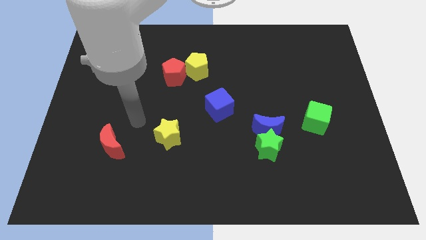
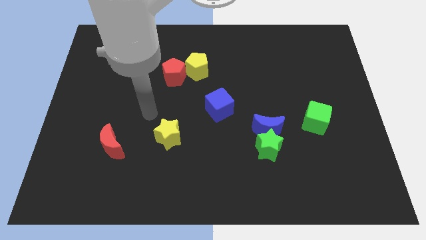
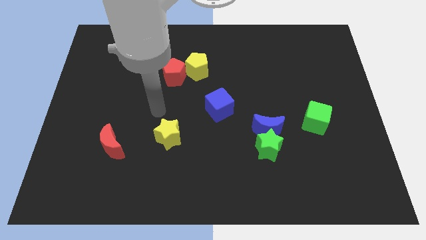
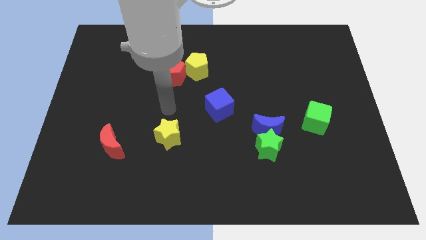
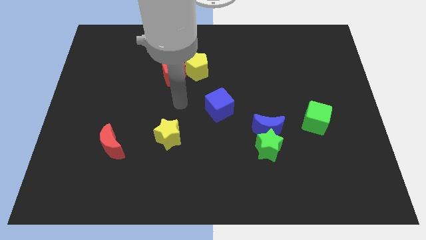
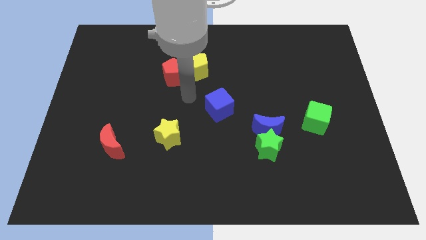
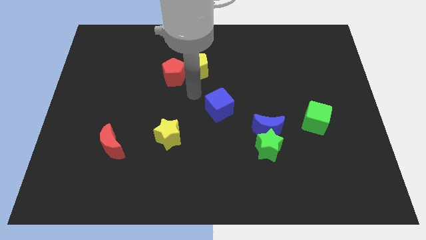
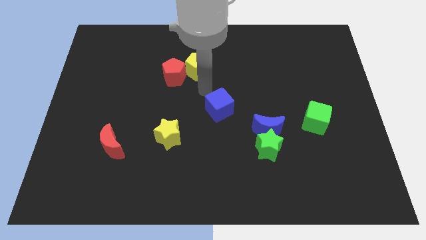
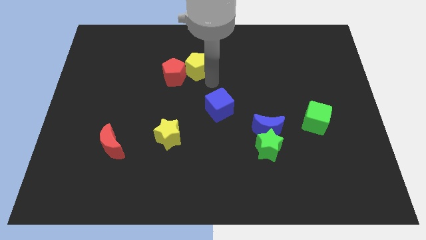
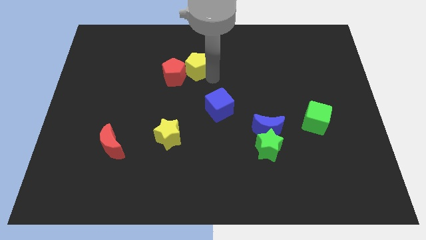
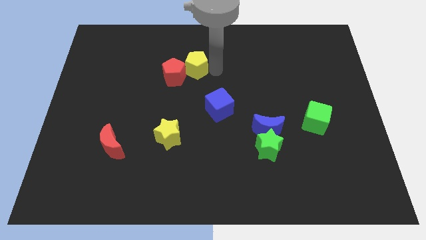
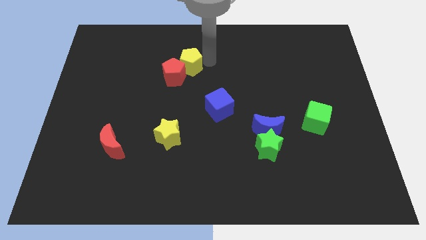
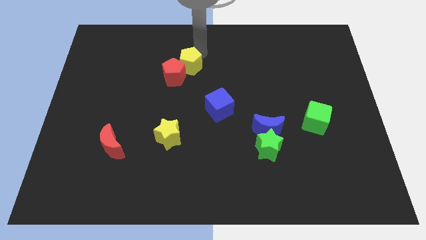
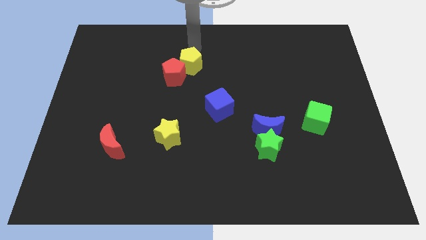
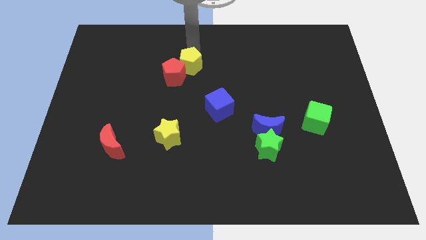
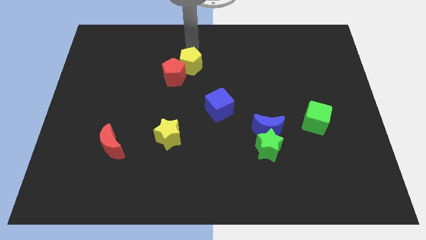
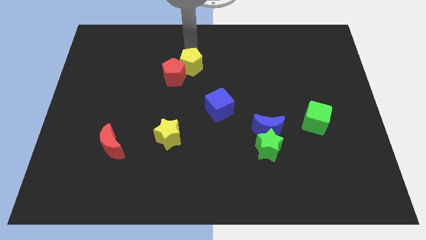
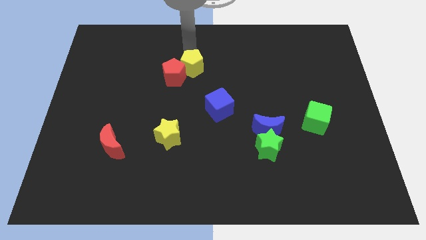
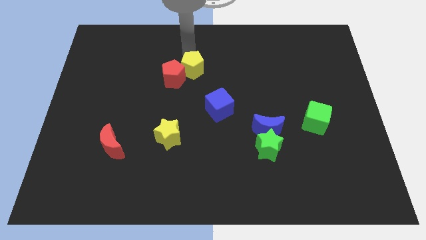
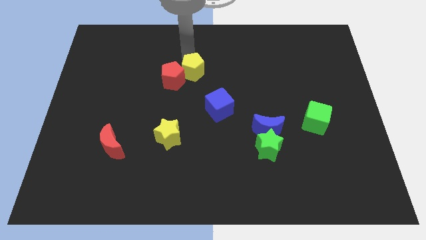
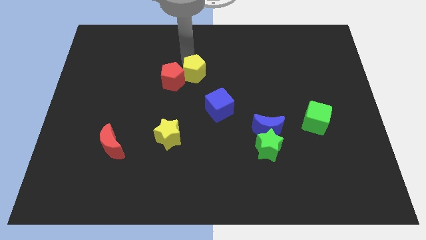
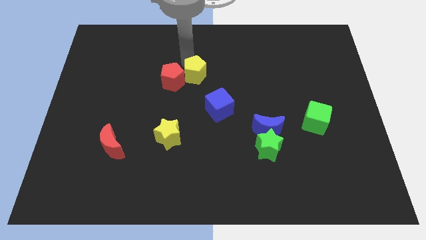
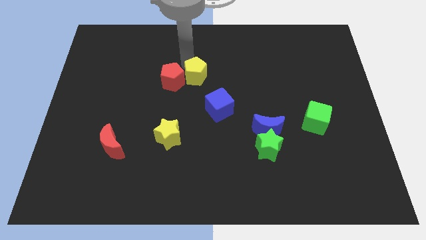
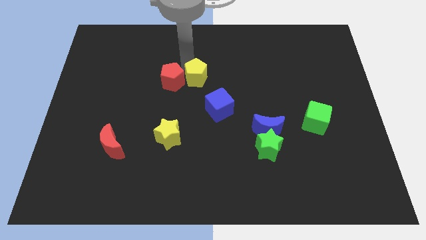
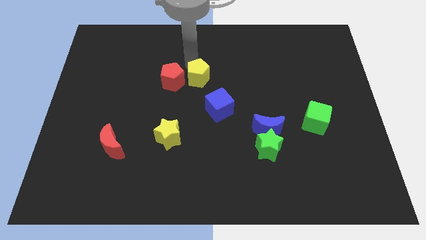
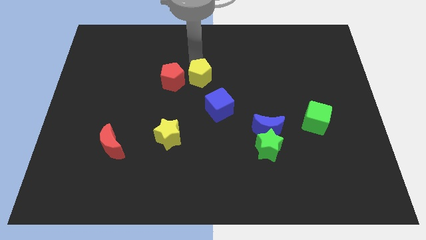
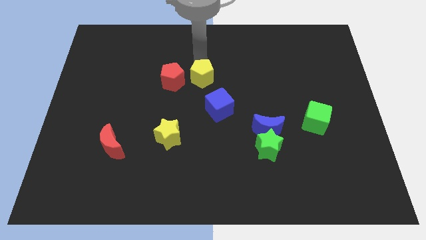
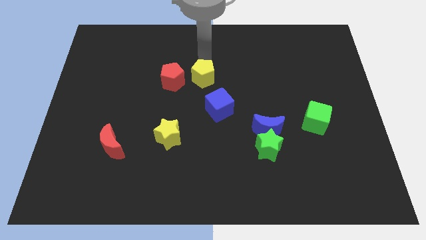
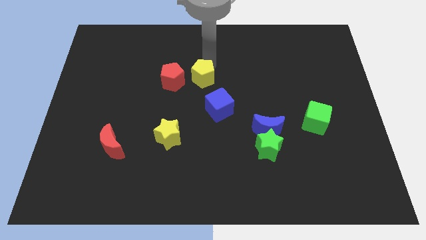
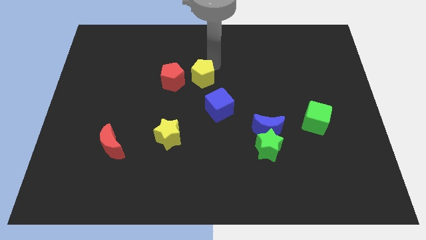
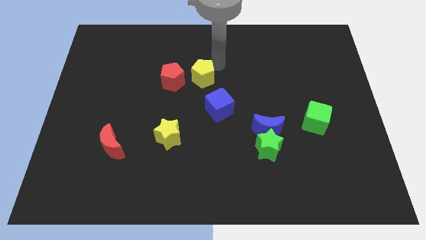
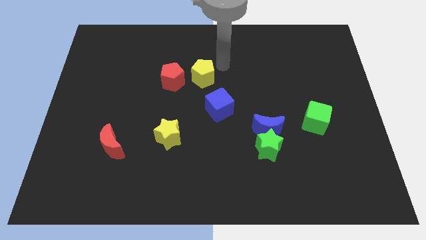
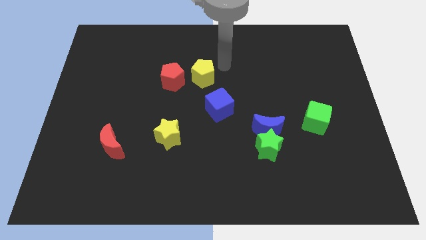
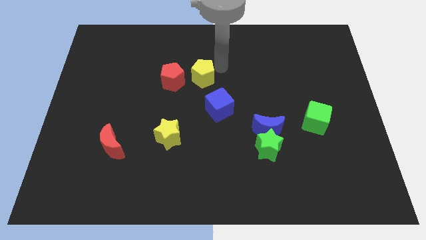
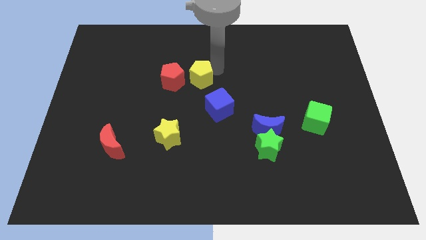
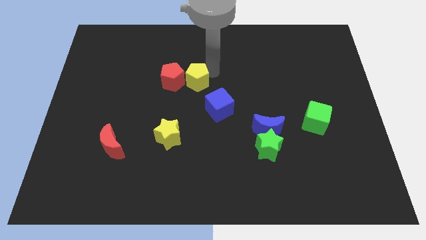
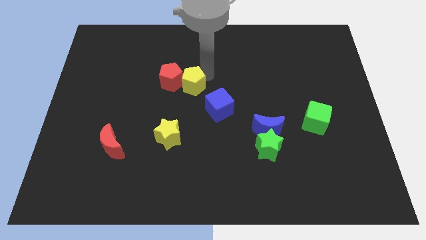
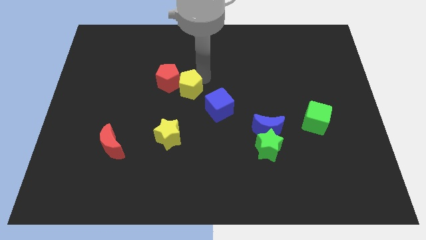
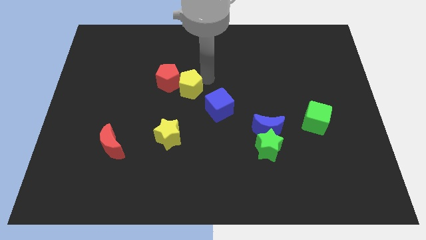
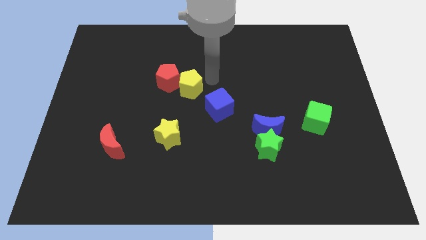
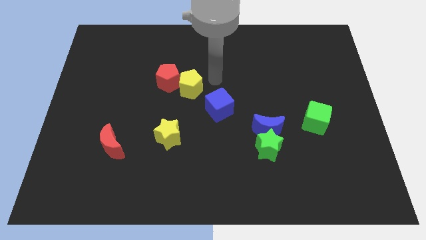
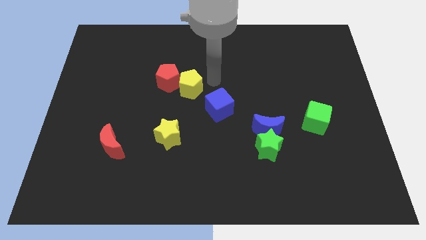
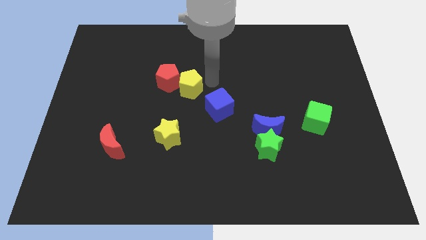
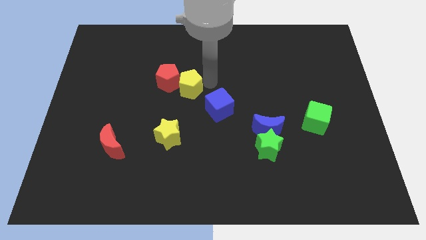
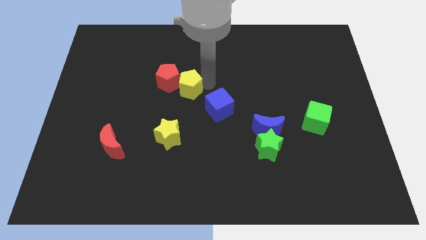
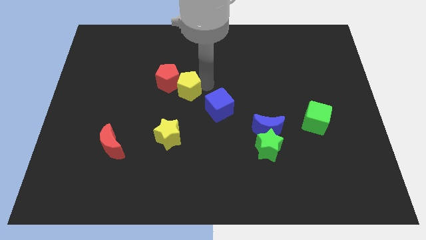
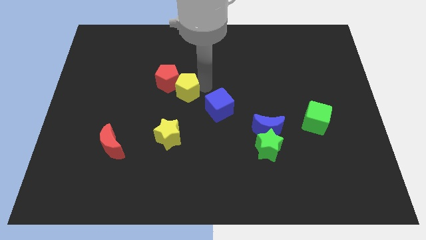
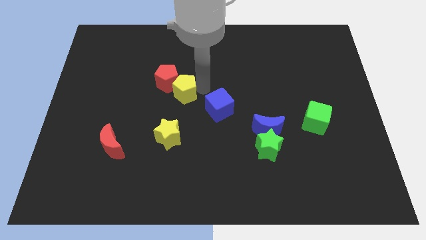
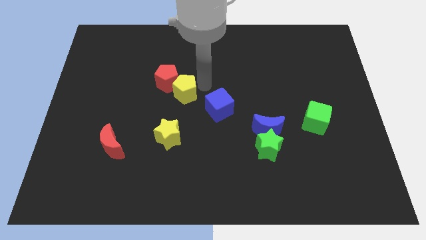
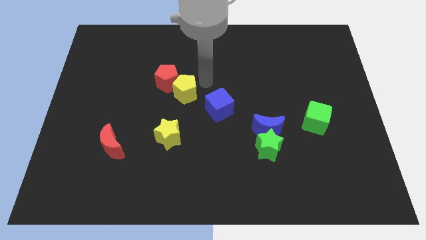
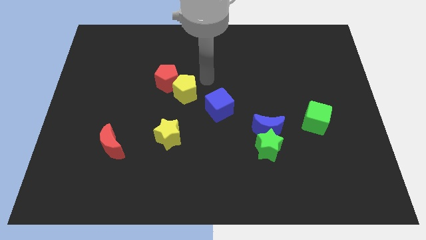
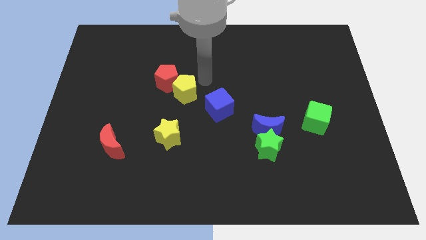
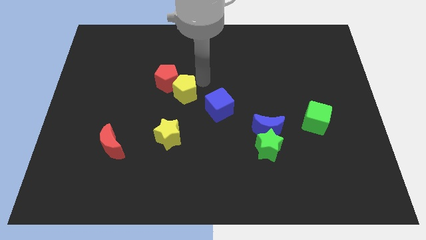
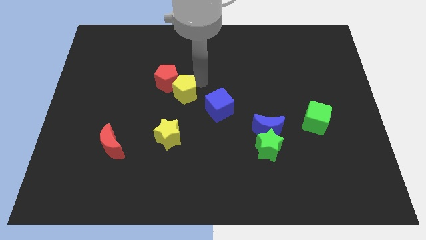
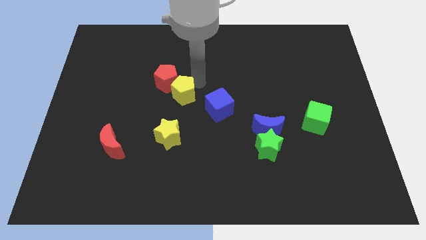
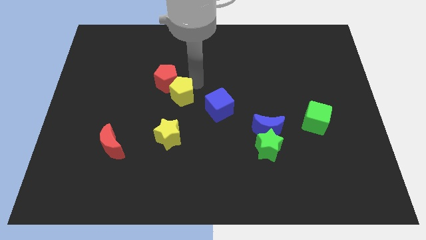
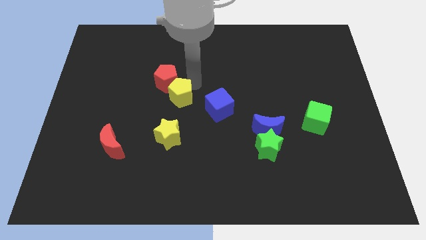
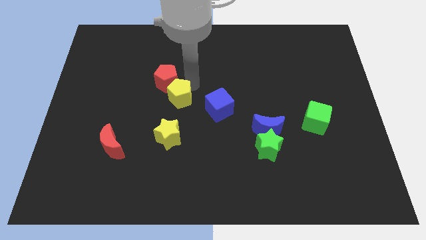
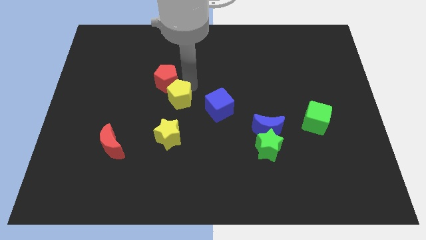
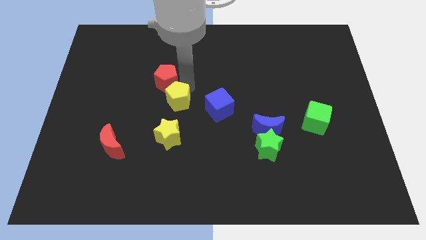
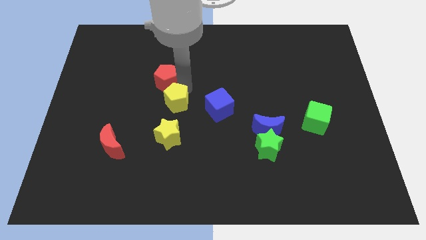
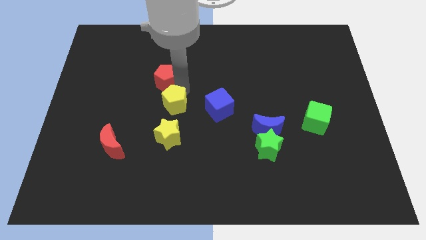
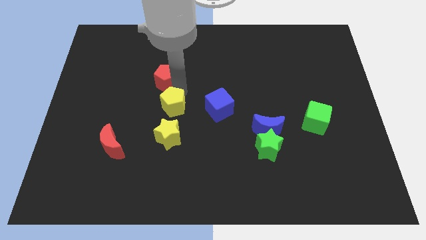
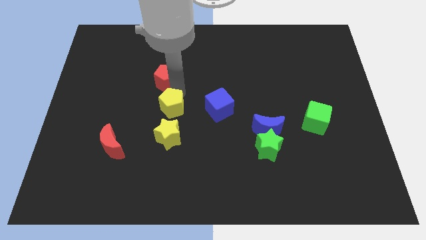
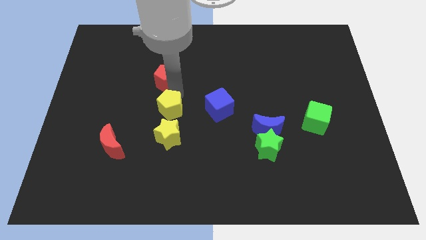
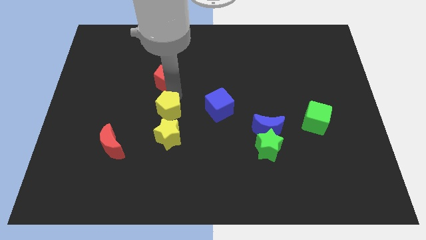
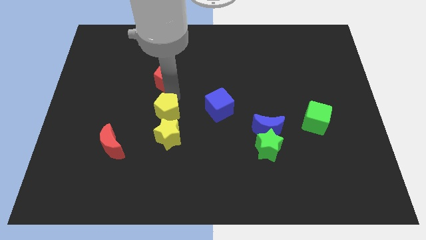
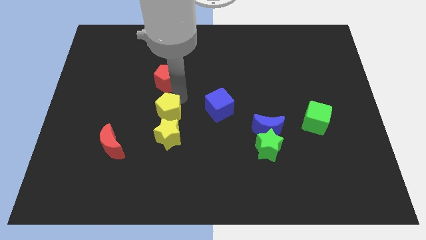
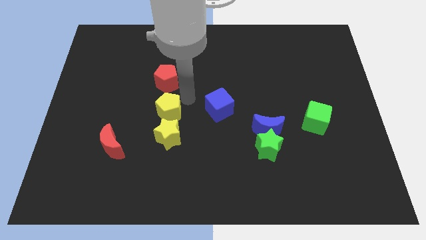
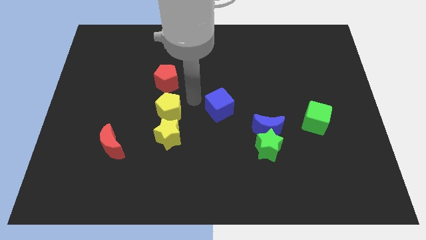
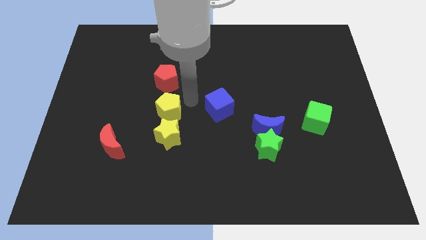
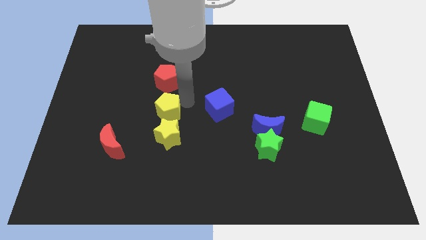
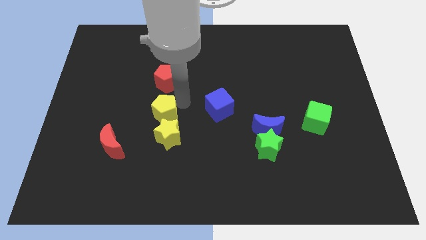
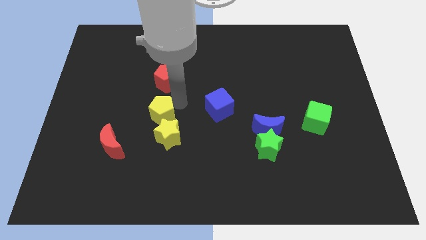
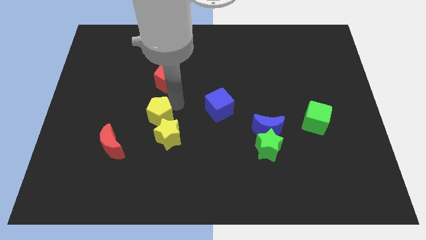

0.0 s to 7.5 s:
put the yellow pentagon to the top right of the red moon
